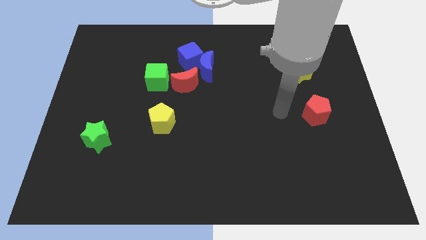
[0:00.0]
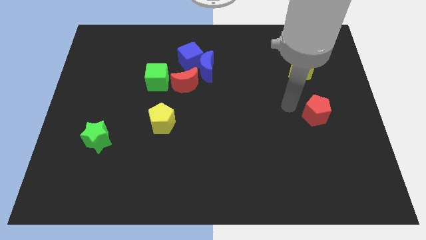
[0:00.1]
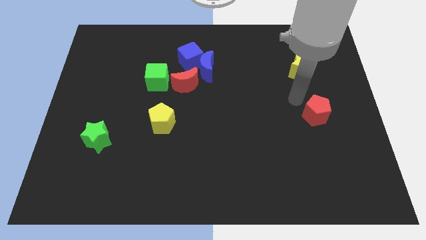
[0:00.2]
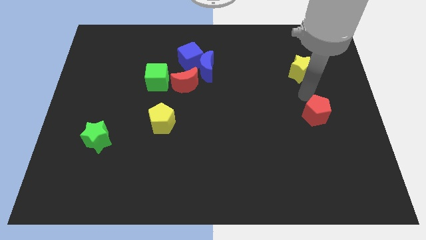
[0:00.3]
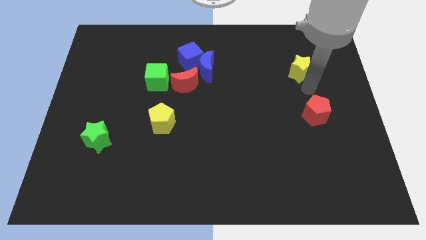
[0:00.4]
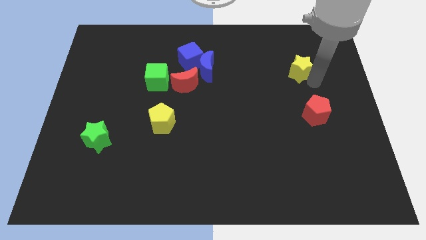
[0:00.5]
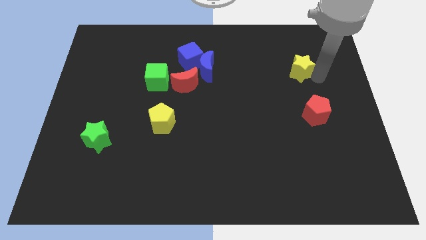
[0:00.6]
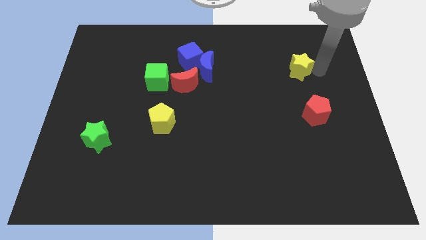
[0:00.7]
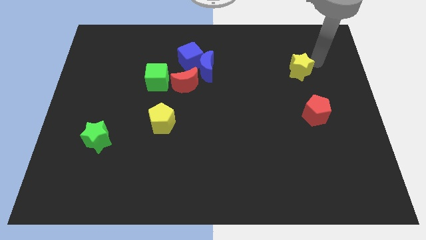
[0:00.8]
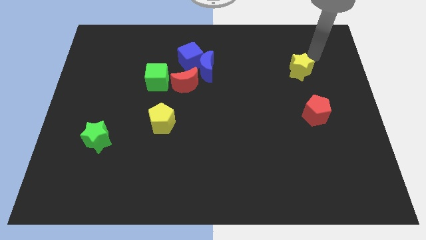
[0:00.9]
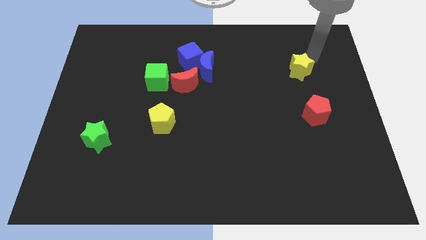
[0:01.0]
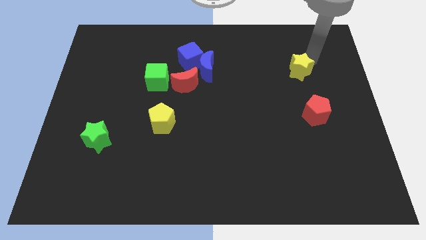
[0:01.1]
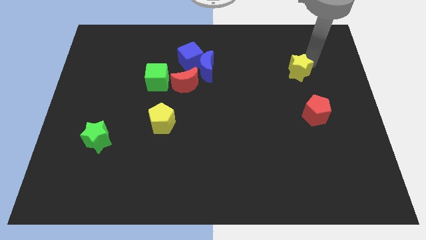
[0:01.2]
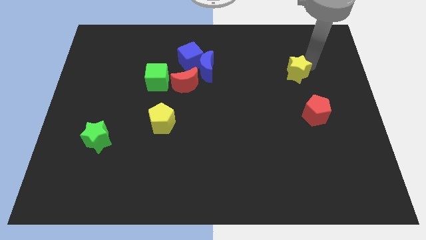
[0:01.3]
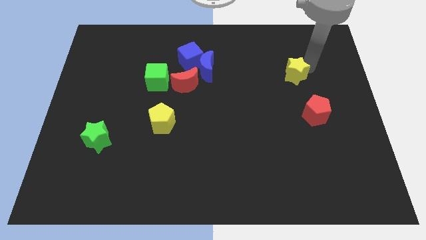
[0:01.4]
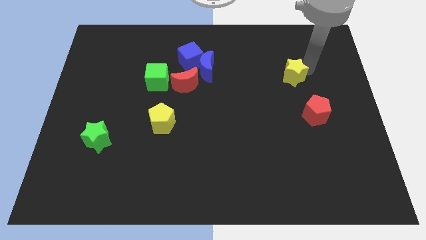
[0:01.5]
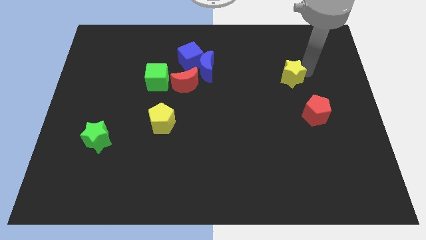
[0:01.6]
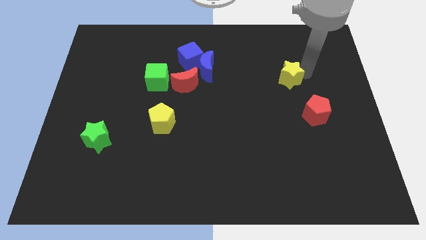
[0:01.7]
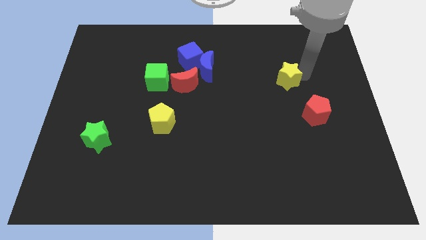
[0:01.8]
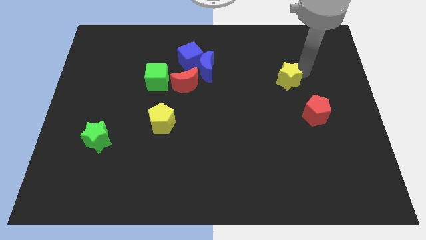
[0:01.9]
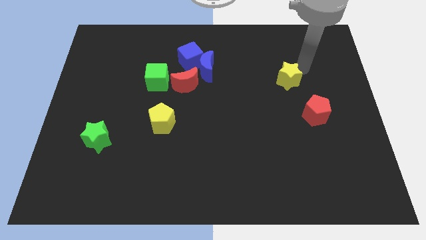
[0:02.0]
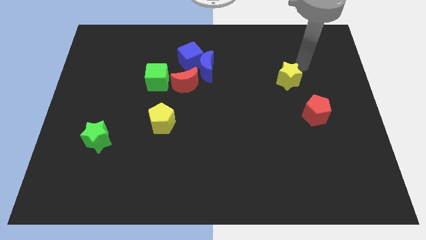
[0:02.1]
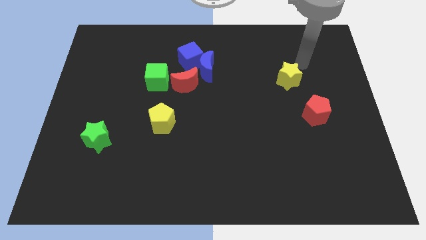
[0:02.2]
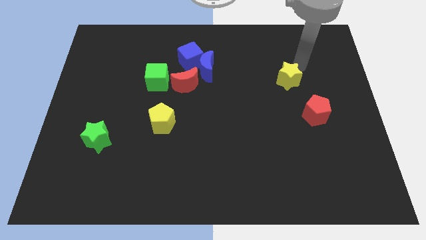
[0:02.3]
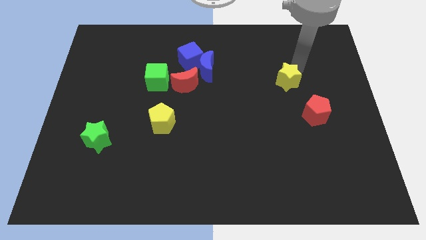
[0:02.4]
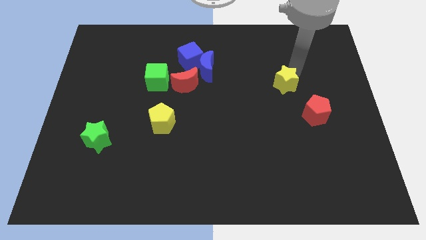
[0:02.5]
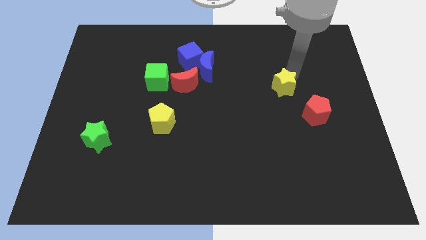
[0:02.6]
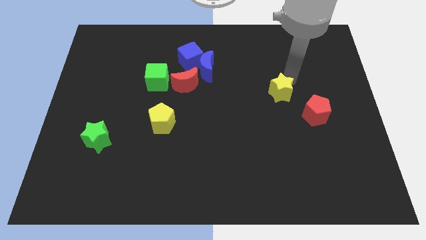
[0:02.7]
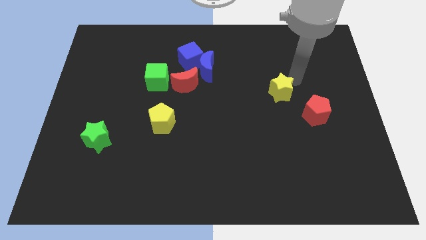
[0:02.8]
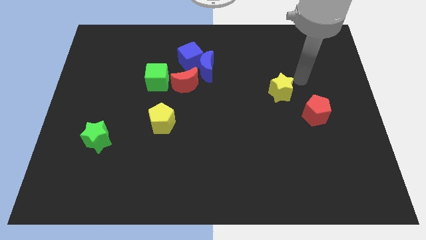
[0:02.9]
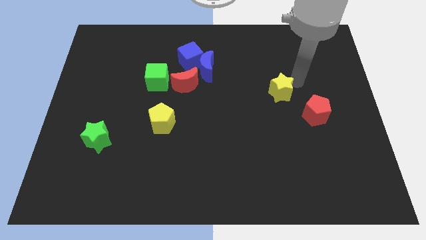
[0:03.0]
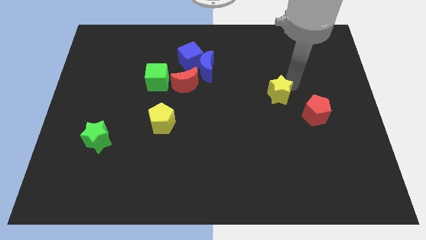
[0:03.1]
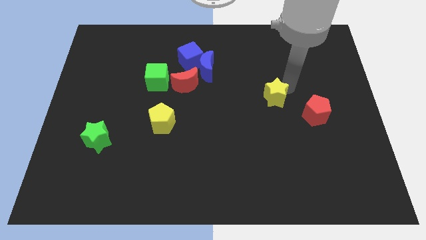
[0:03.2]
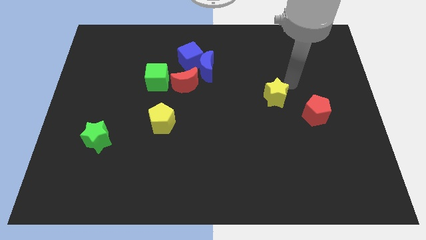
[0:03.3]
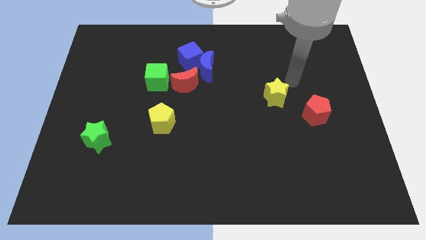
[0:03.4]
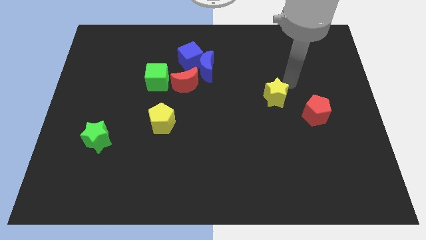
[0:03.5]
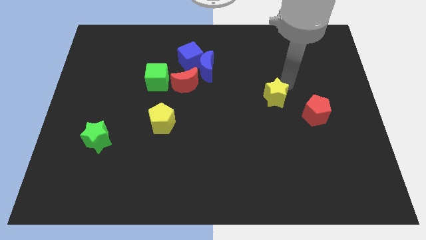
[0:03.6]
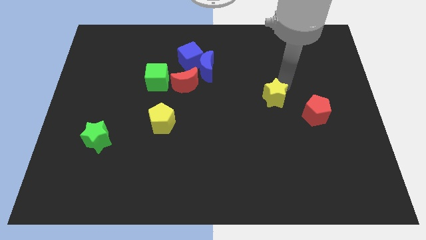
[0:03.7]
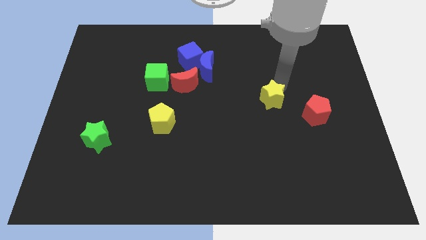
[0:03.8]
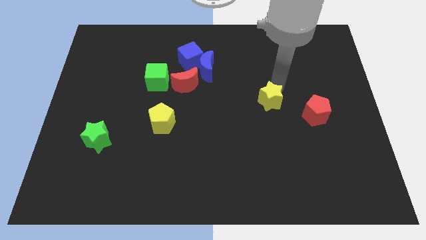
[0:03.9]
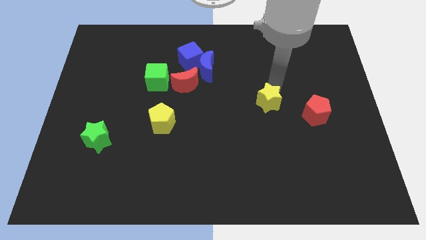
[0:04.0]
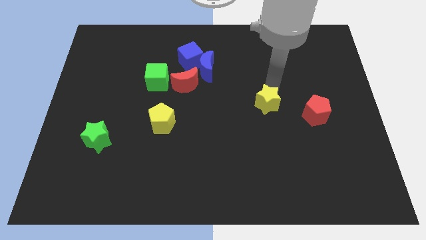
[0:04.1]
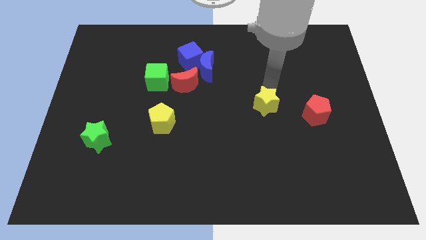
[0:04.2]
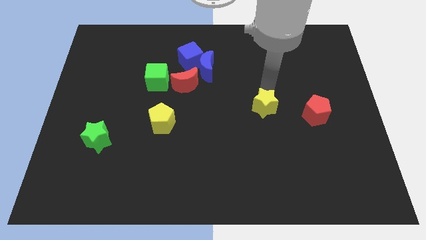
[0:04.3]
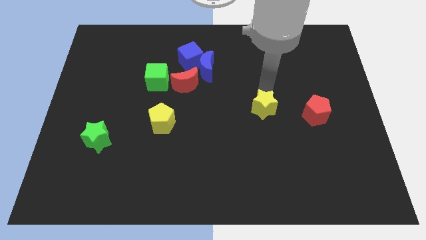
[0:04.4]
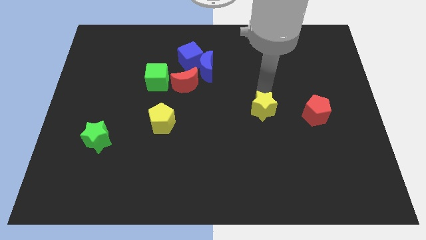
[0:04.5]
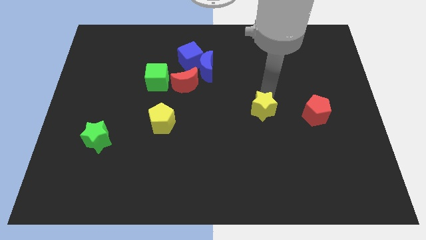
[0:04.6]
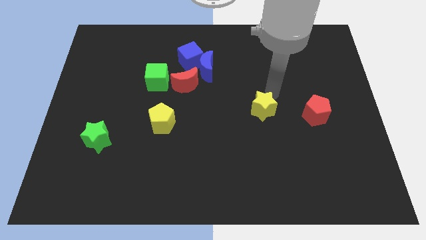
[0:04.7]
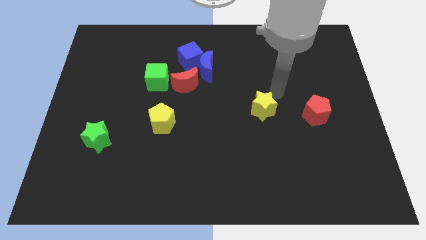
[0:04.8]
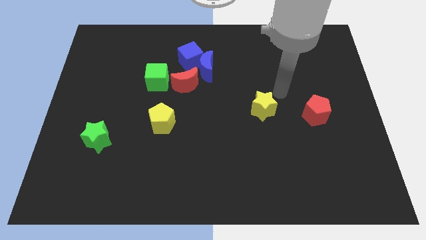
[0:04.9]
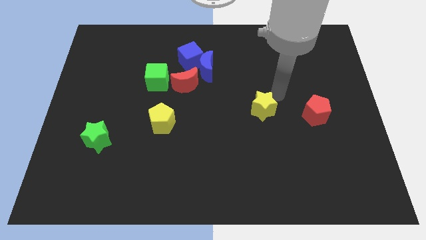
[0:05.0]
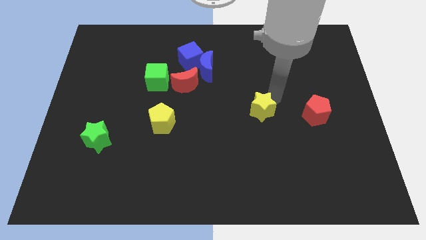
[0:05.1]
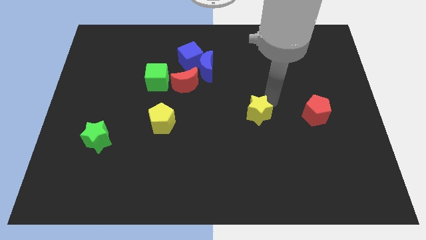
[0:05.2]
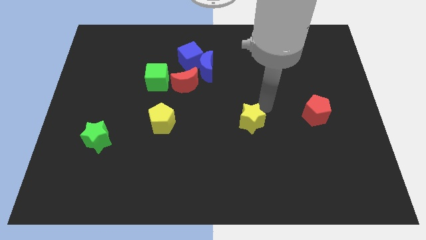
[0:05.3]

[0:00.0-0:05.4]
slide the yellow star down and left diagonally

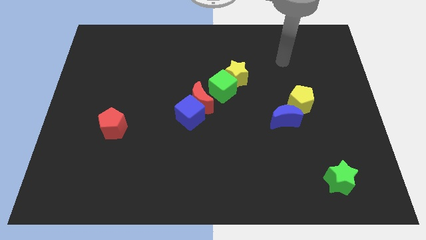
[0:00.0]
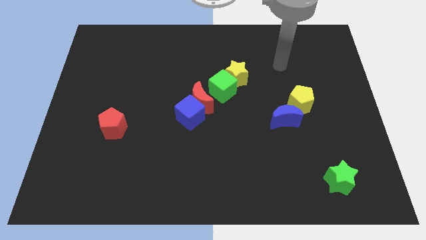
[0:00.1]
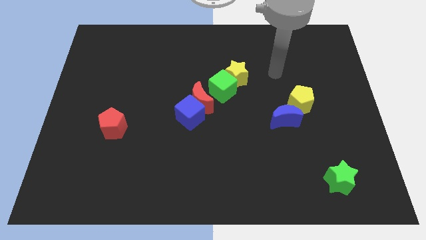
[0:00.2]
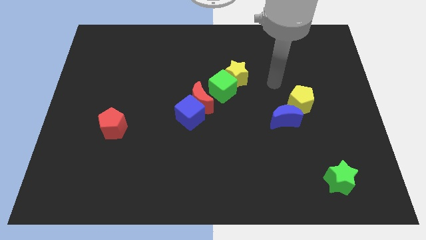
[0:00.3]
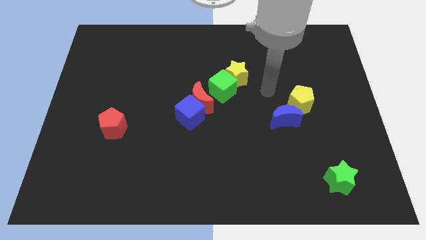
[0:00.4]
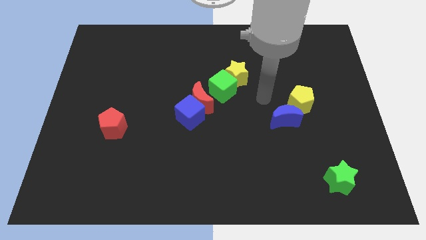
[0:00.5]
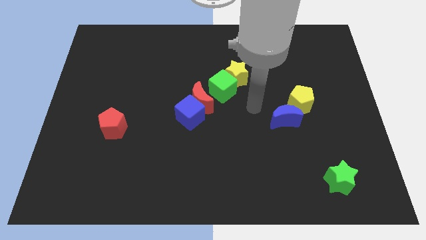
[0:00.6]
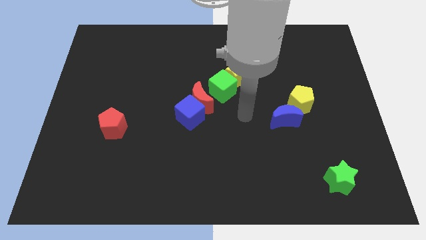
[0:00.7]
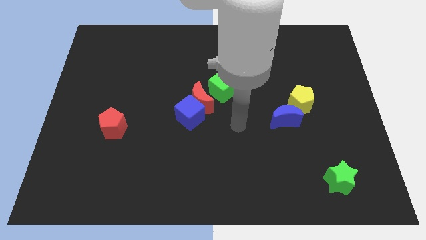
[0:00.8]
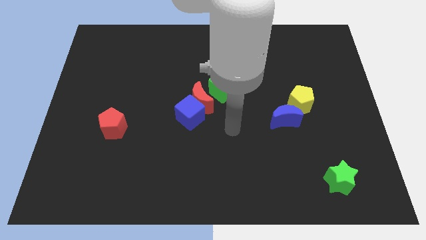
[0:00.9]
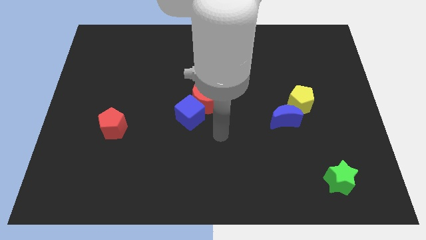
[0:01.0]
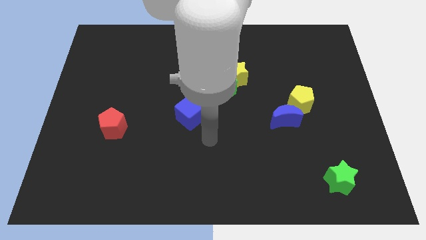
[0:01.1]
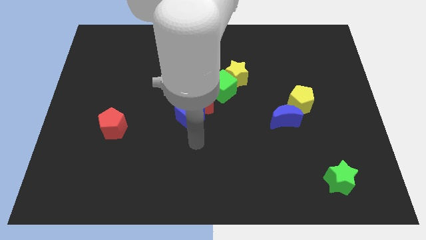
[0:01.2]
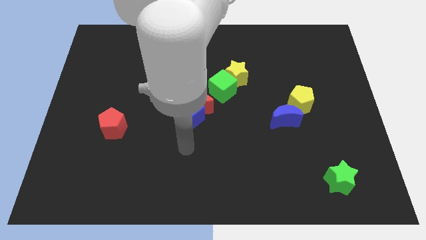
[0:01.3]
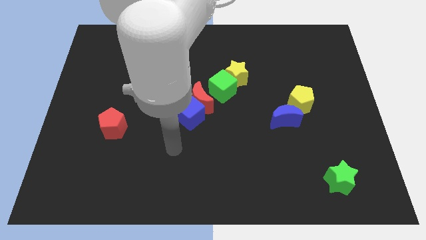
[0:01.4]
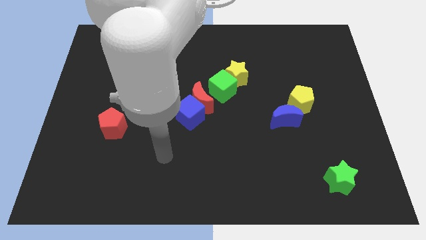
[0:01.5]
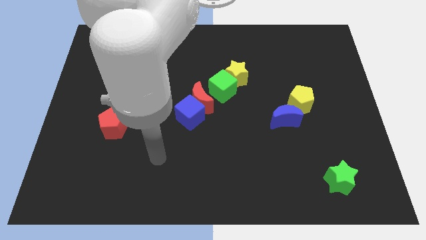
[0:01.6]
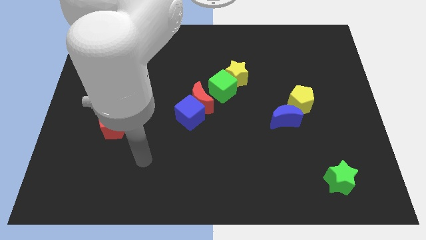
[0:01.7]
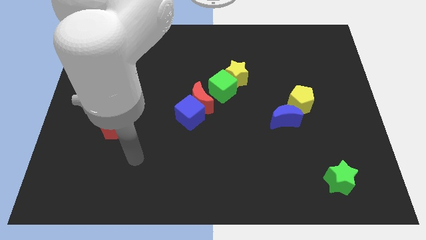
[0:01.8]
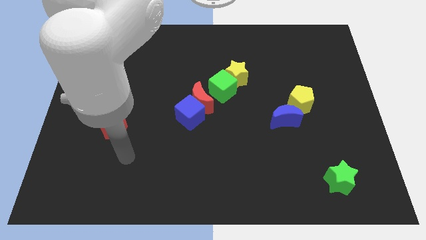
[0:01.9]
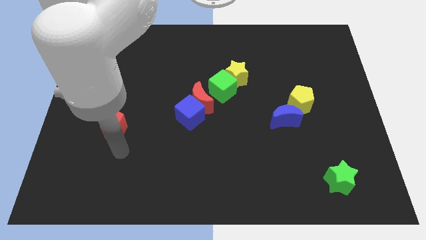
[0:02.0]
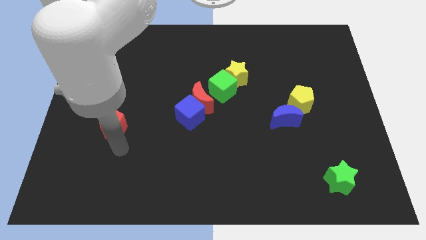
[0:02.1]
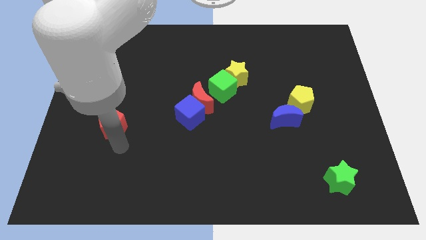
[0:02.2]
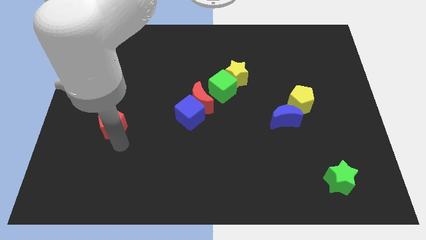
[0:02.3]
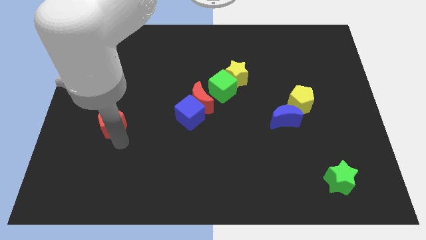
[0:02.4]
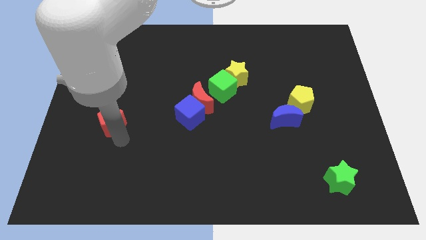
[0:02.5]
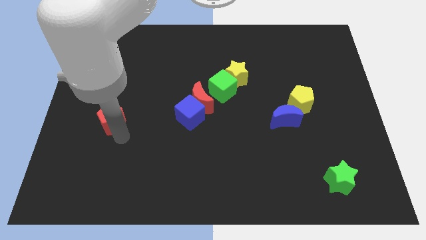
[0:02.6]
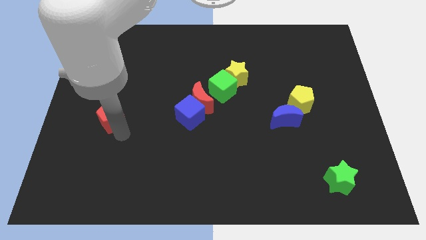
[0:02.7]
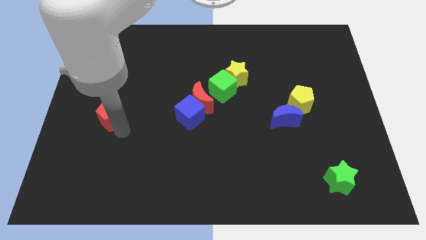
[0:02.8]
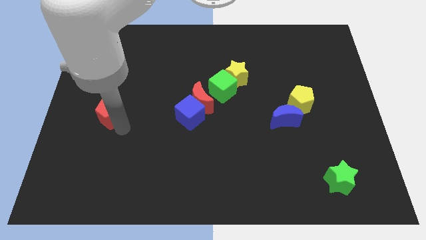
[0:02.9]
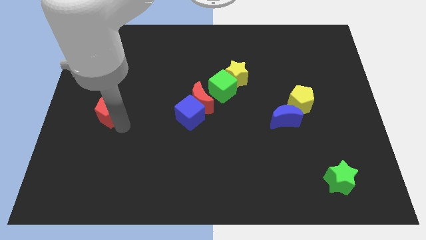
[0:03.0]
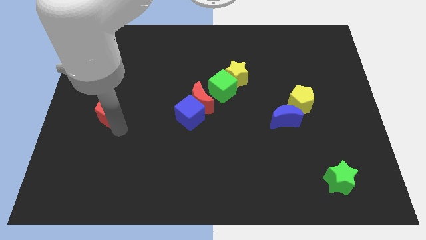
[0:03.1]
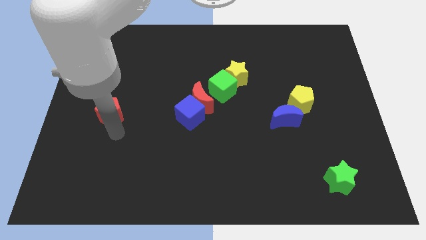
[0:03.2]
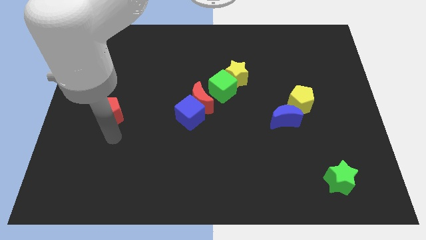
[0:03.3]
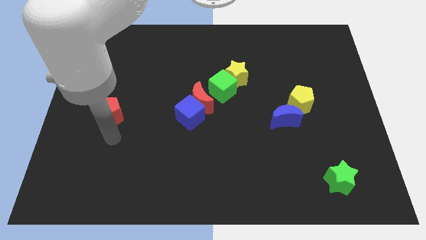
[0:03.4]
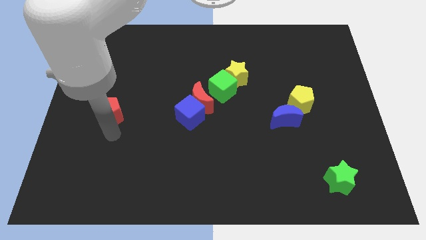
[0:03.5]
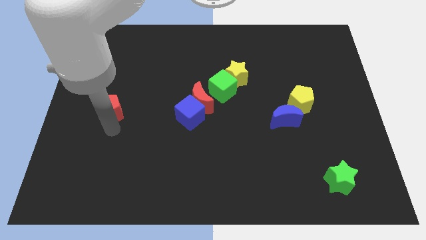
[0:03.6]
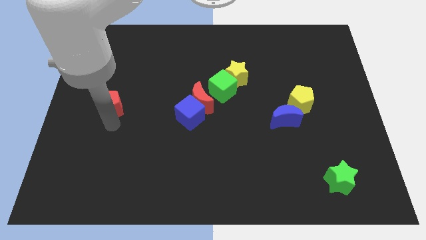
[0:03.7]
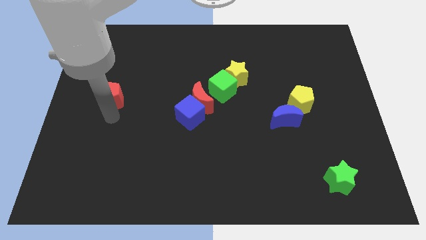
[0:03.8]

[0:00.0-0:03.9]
slide the red pentagon a little up
